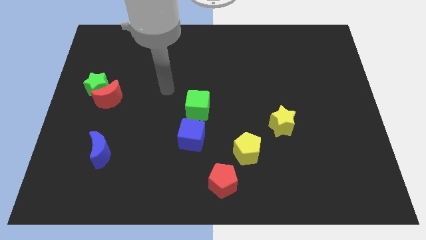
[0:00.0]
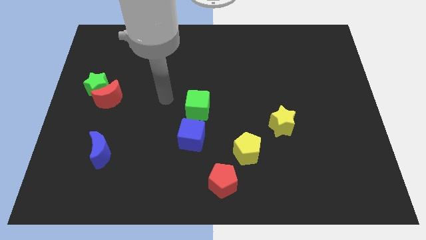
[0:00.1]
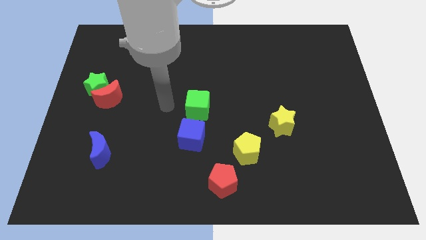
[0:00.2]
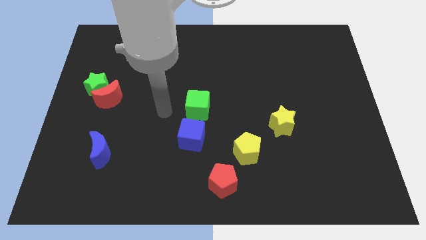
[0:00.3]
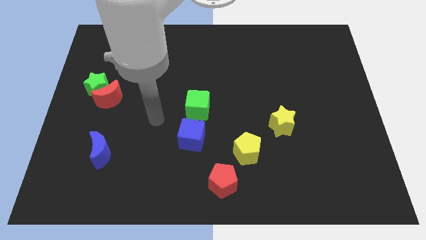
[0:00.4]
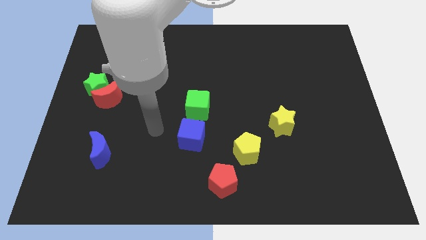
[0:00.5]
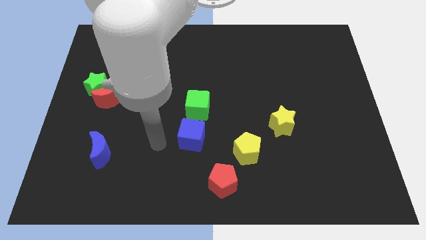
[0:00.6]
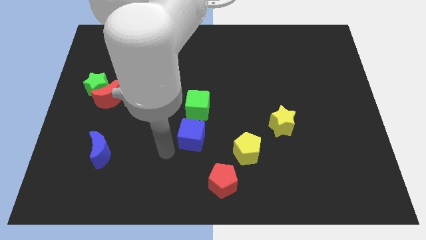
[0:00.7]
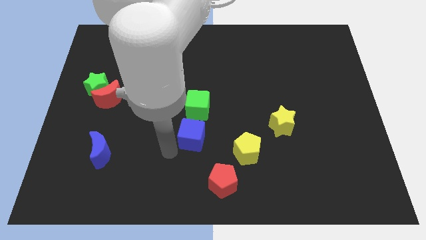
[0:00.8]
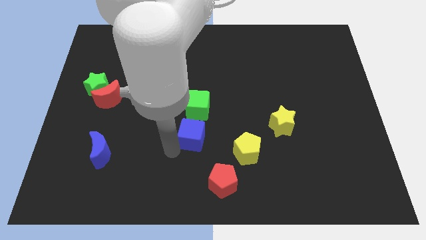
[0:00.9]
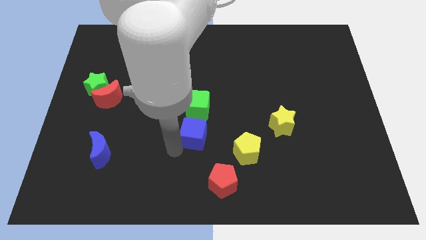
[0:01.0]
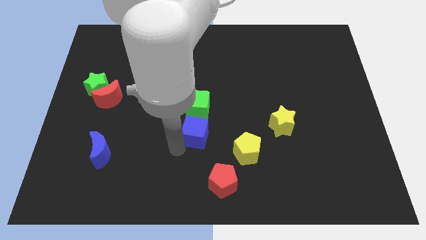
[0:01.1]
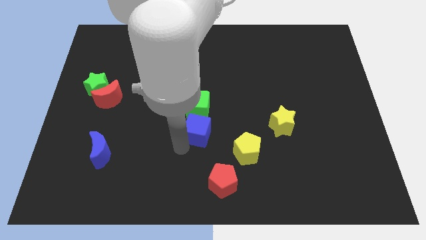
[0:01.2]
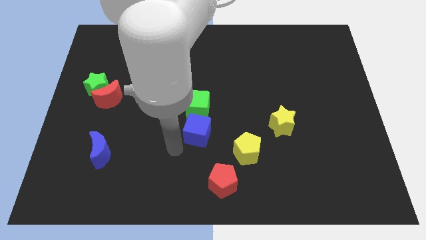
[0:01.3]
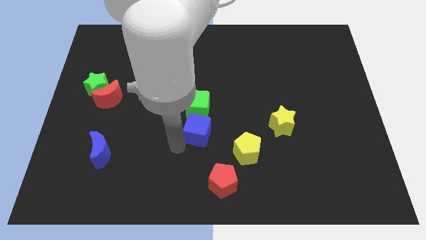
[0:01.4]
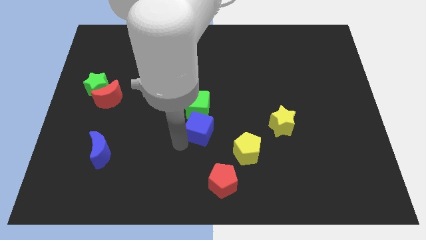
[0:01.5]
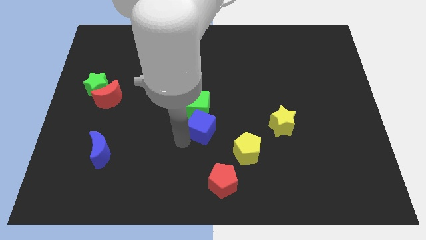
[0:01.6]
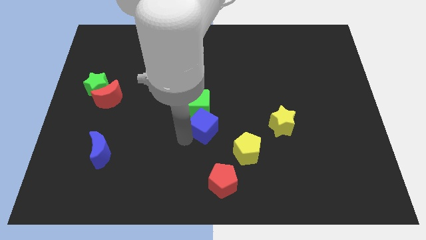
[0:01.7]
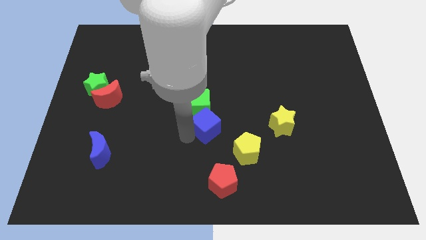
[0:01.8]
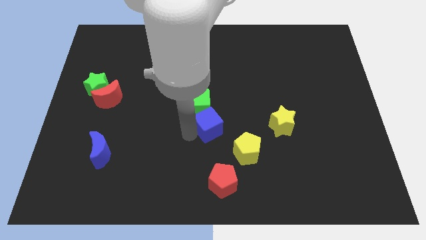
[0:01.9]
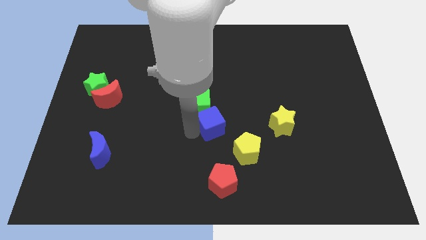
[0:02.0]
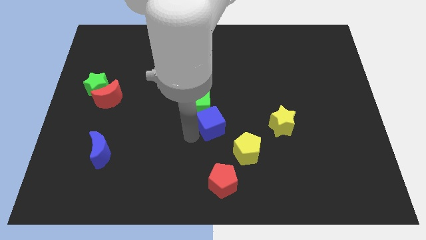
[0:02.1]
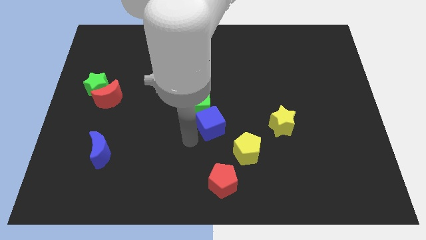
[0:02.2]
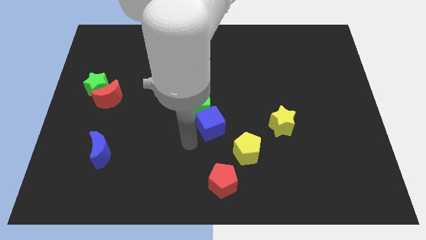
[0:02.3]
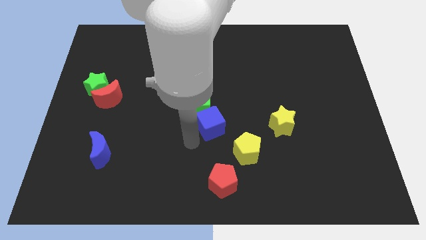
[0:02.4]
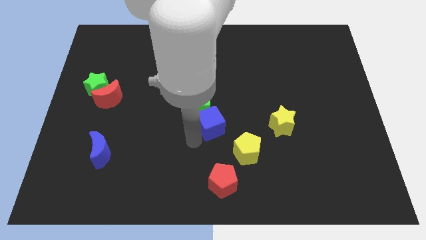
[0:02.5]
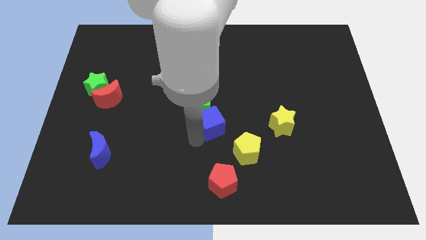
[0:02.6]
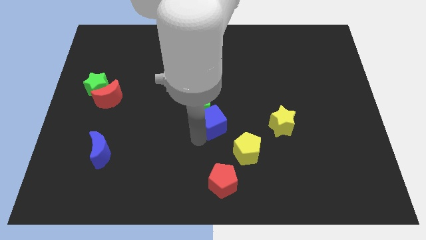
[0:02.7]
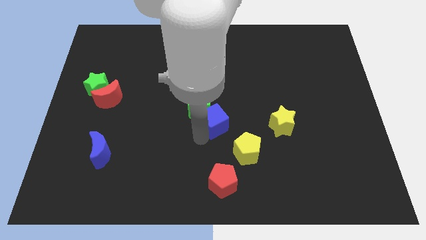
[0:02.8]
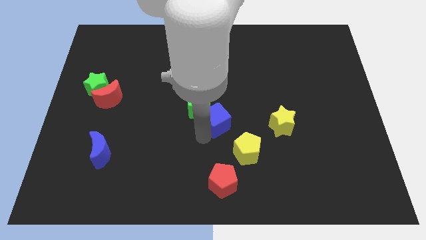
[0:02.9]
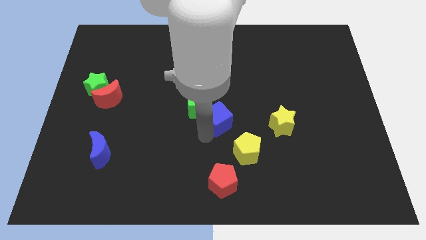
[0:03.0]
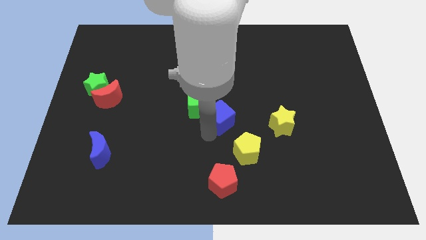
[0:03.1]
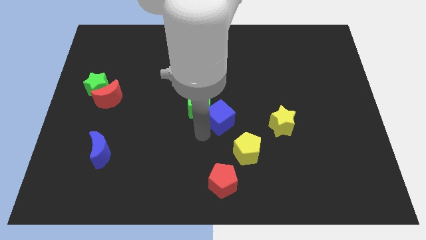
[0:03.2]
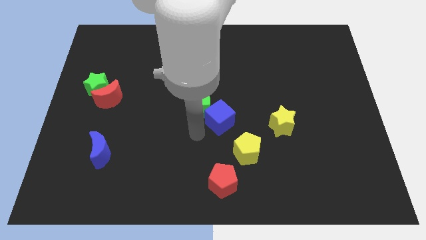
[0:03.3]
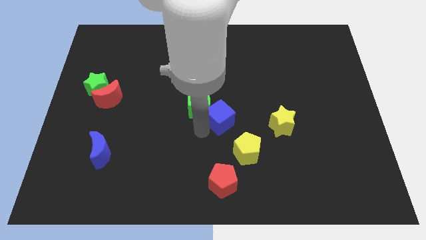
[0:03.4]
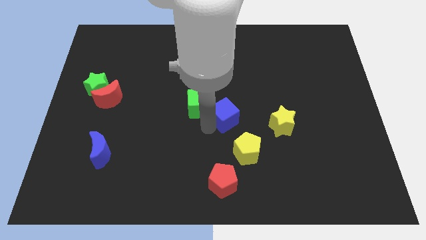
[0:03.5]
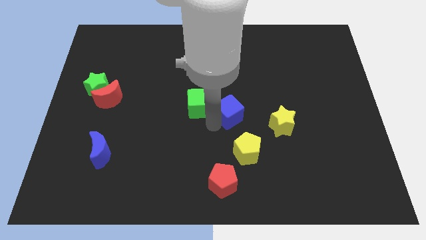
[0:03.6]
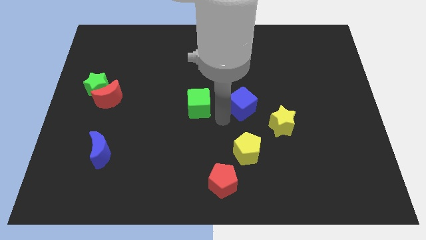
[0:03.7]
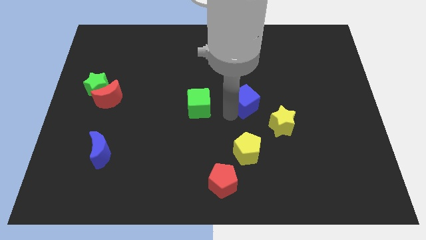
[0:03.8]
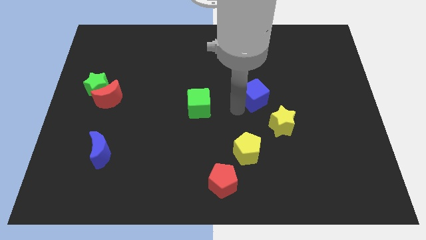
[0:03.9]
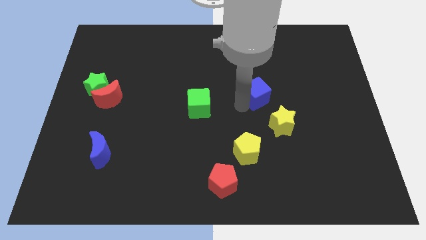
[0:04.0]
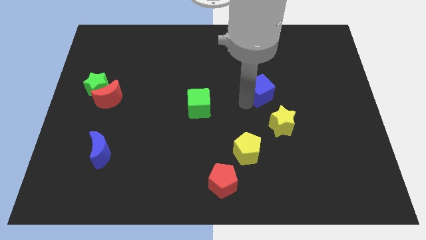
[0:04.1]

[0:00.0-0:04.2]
move the blue cube up and right

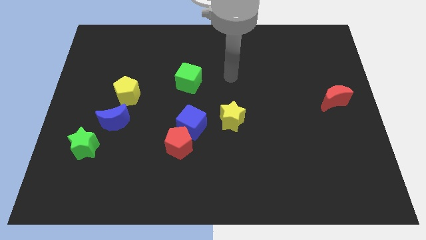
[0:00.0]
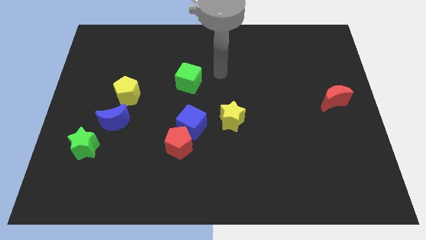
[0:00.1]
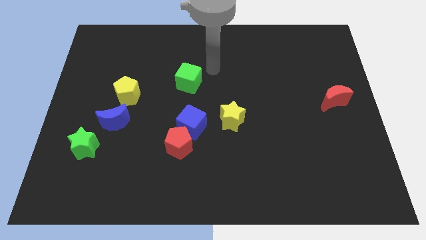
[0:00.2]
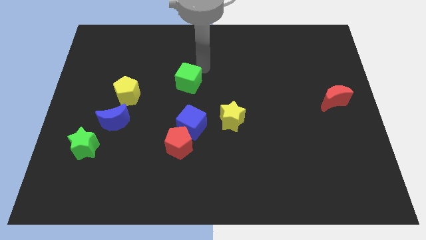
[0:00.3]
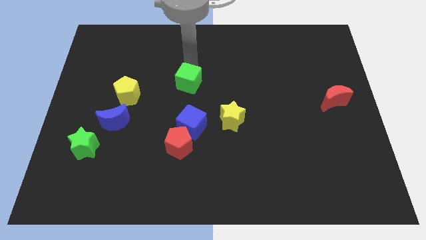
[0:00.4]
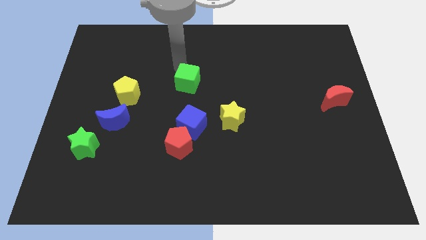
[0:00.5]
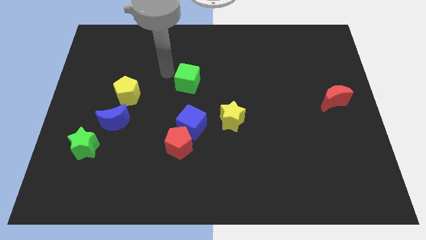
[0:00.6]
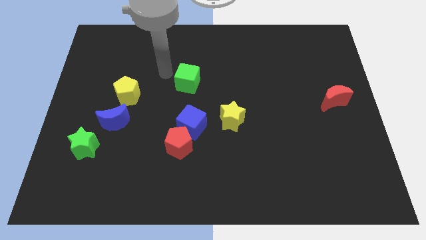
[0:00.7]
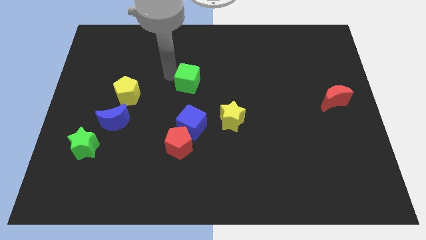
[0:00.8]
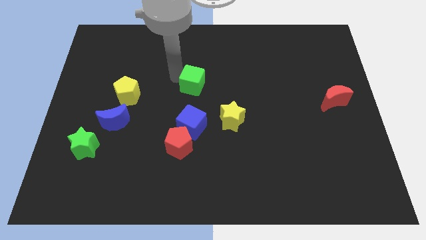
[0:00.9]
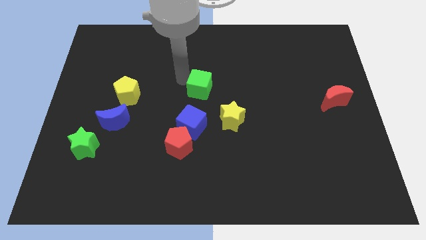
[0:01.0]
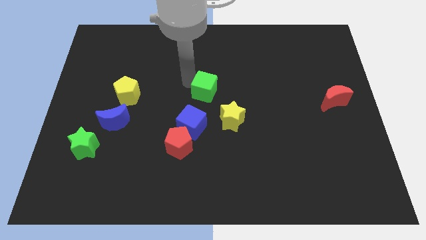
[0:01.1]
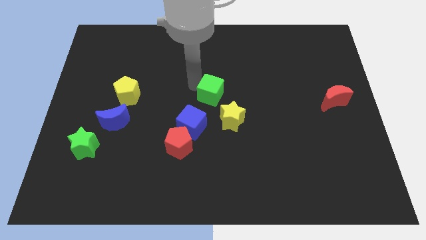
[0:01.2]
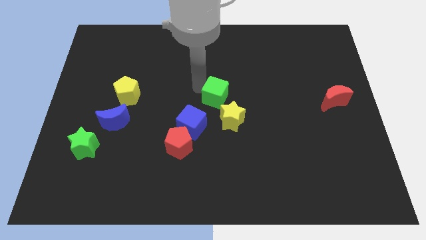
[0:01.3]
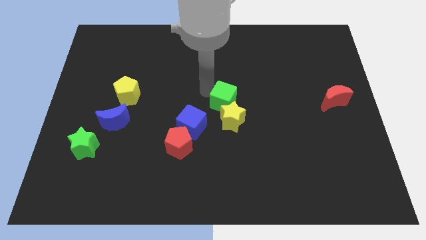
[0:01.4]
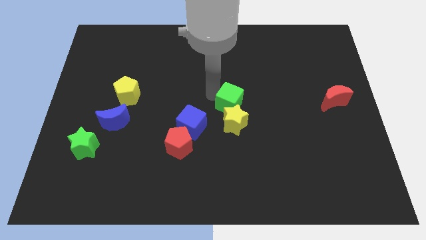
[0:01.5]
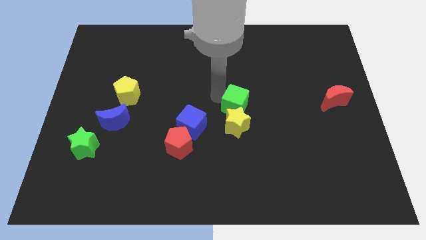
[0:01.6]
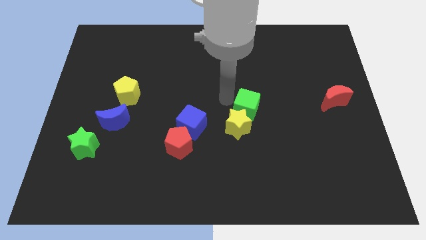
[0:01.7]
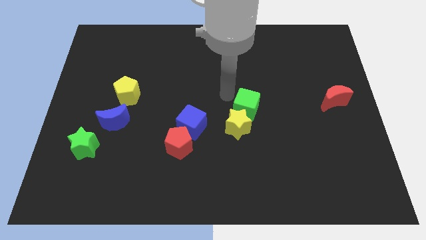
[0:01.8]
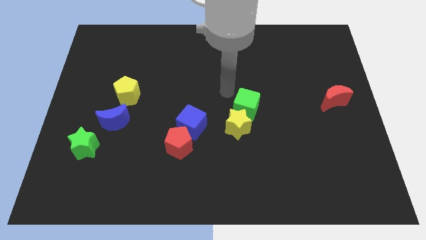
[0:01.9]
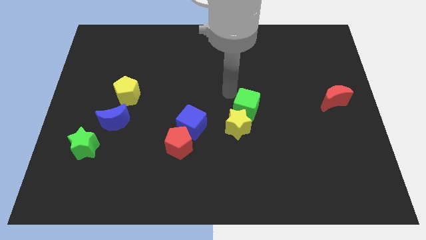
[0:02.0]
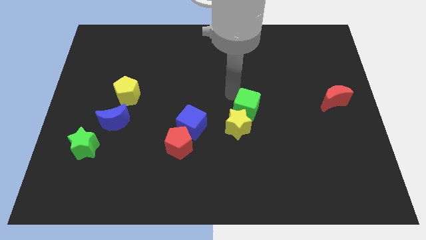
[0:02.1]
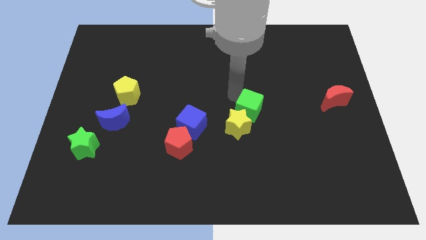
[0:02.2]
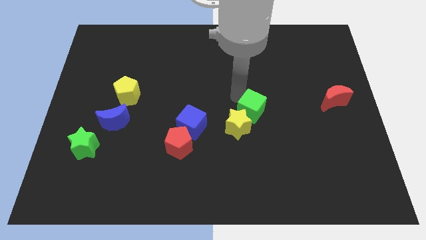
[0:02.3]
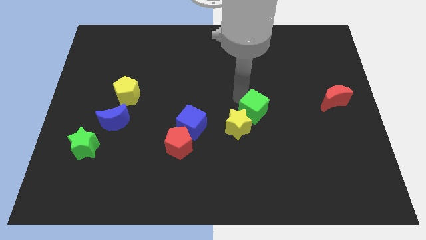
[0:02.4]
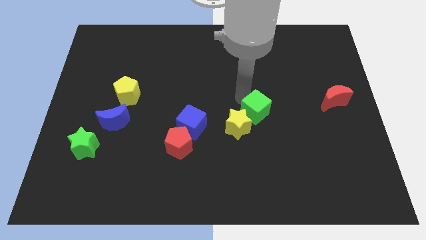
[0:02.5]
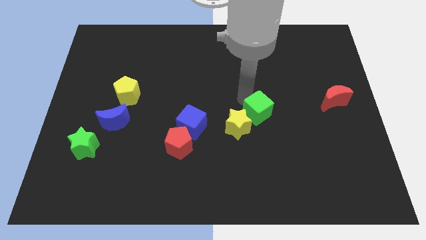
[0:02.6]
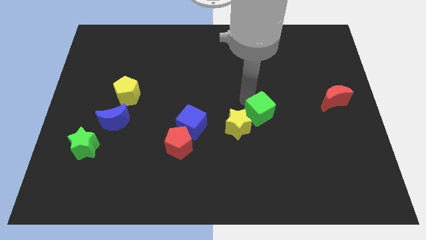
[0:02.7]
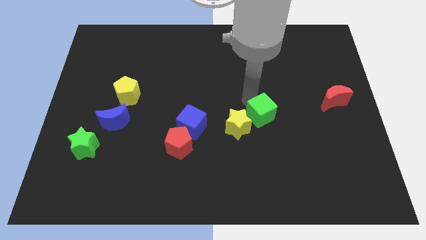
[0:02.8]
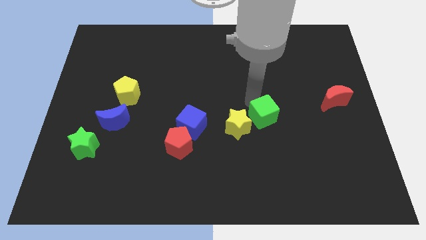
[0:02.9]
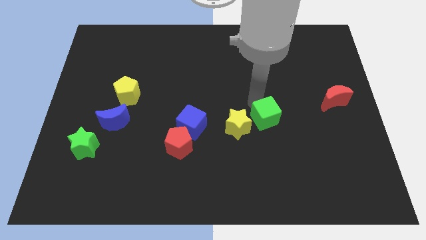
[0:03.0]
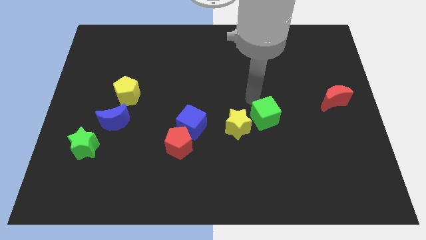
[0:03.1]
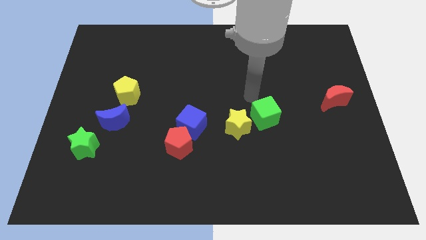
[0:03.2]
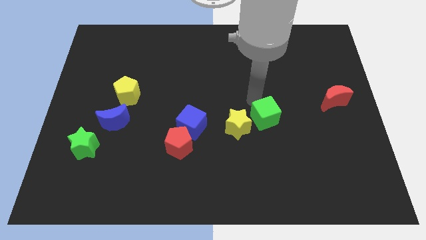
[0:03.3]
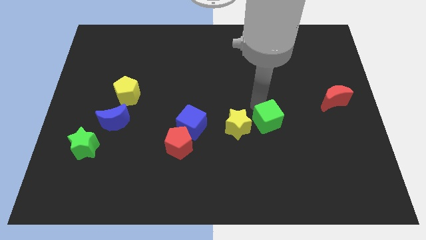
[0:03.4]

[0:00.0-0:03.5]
push the green cube diagonally down and to the right

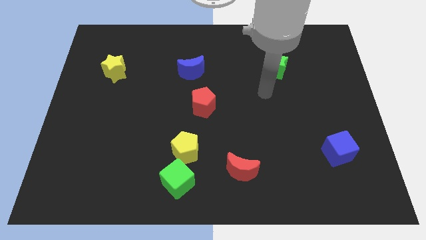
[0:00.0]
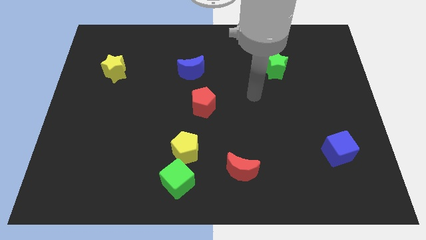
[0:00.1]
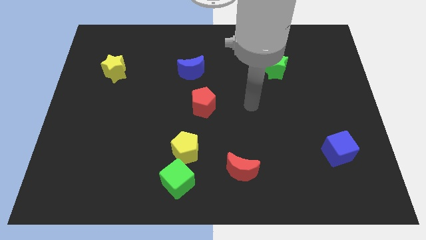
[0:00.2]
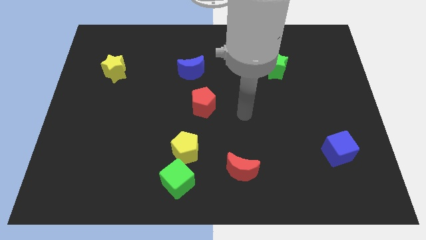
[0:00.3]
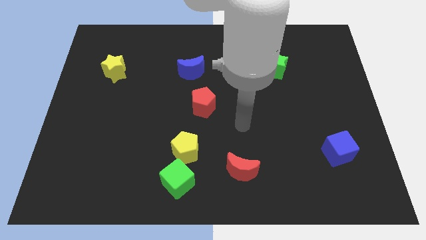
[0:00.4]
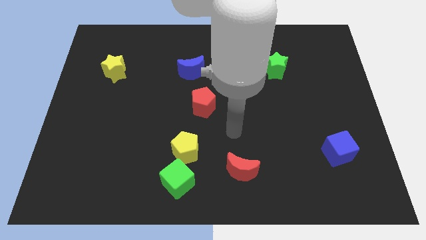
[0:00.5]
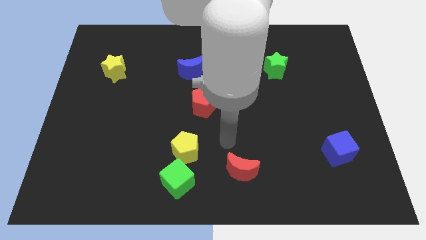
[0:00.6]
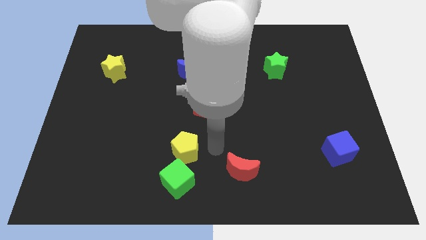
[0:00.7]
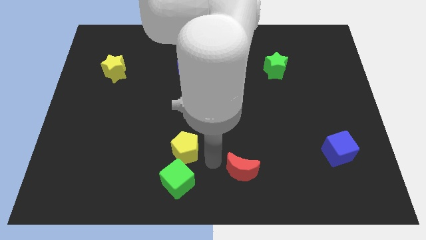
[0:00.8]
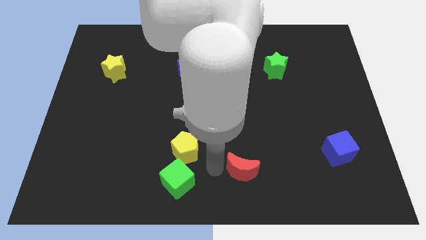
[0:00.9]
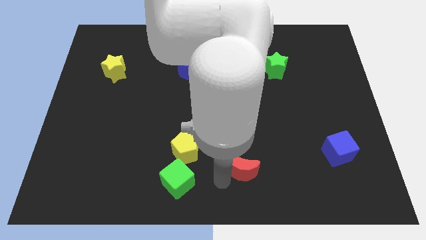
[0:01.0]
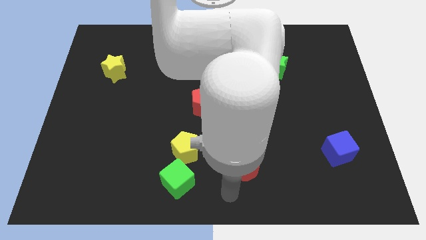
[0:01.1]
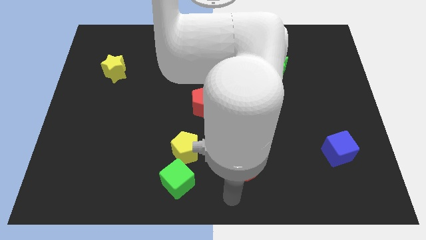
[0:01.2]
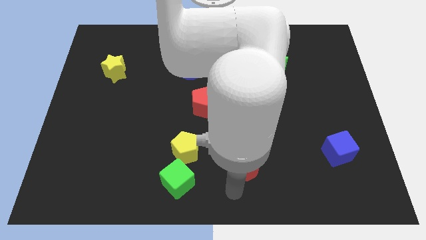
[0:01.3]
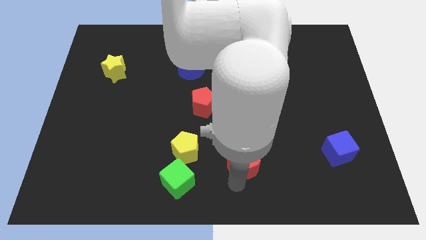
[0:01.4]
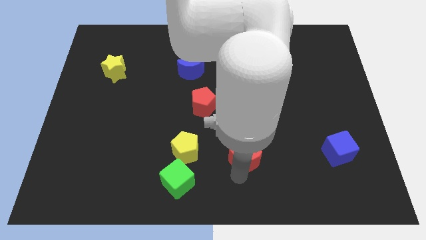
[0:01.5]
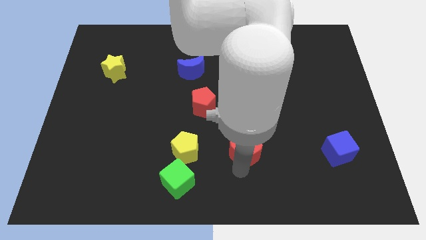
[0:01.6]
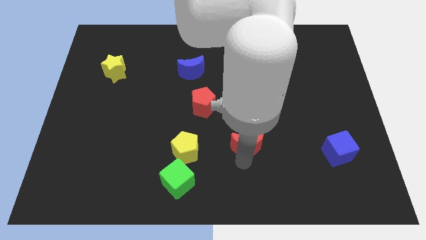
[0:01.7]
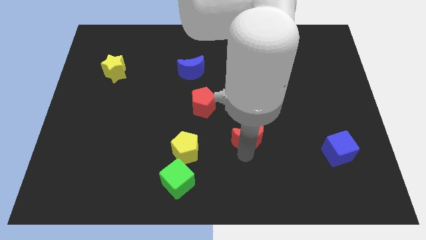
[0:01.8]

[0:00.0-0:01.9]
slightly slide the red moon up
